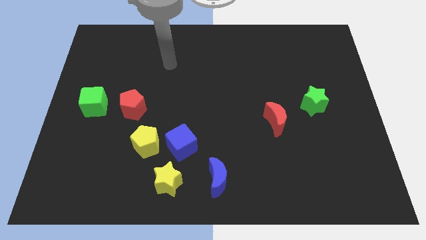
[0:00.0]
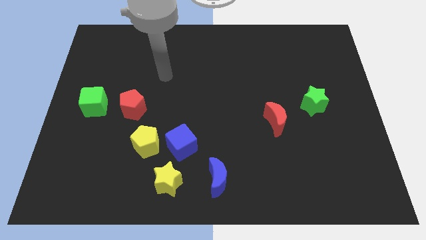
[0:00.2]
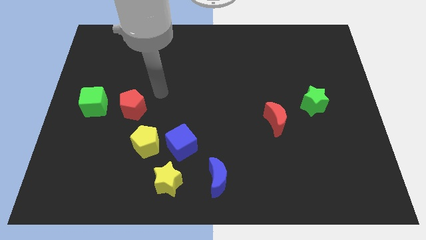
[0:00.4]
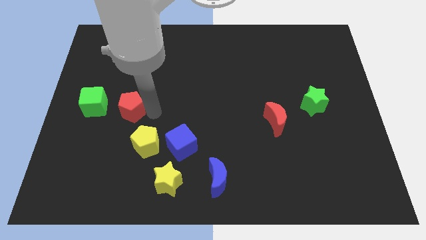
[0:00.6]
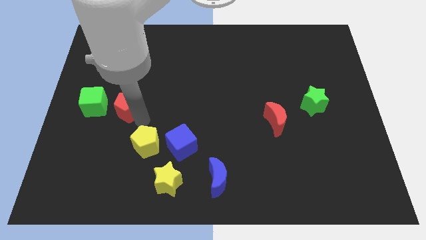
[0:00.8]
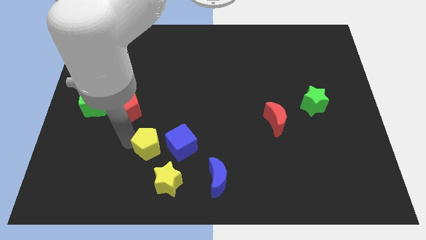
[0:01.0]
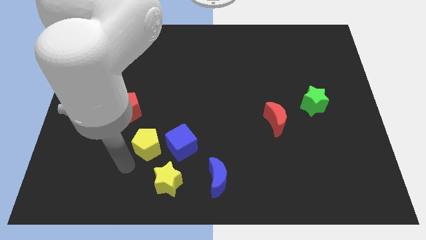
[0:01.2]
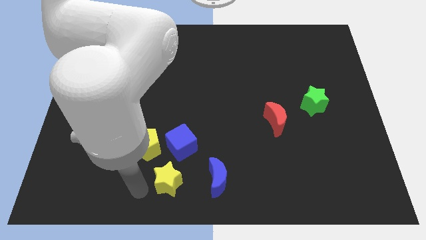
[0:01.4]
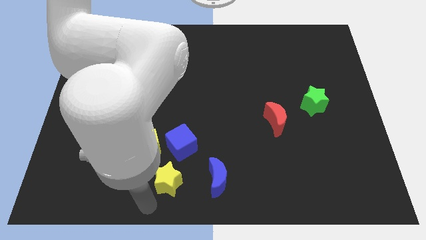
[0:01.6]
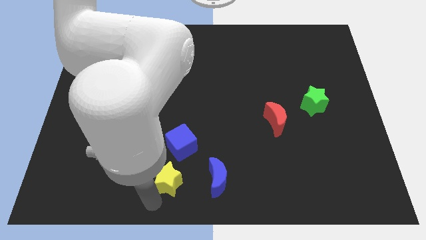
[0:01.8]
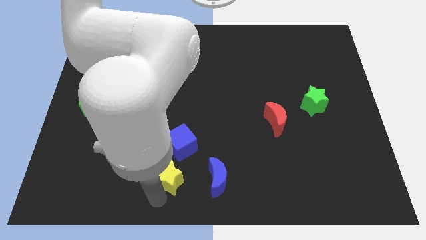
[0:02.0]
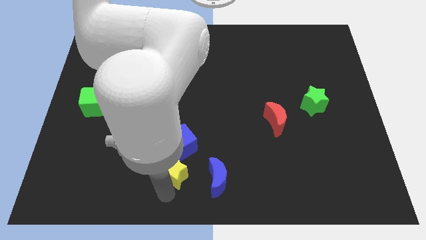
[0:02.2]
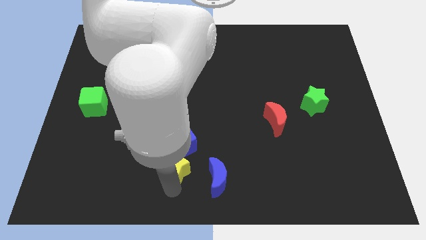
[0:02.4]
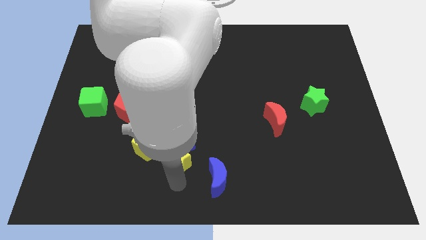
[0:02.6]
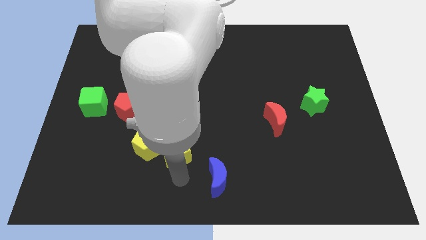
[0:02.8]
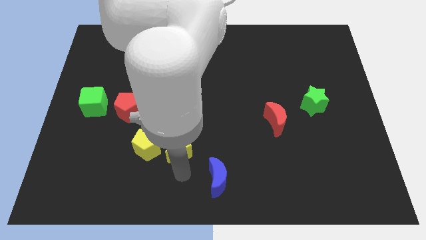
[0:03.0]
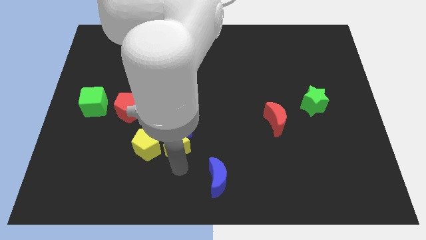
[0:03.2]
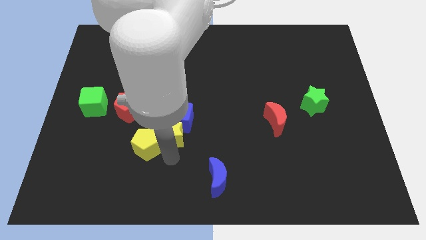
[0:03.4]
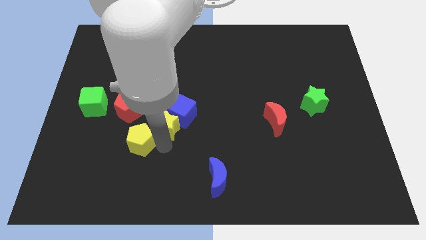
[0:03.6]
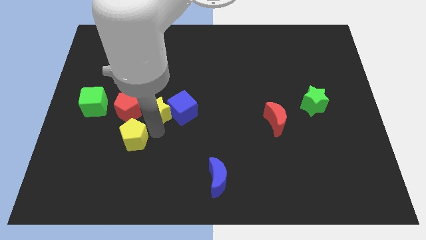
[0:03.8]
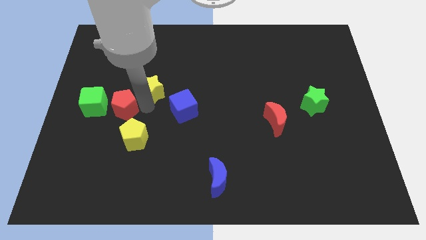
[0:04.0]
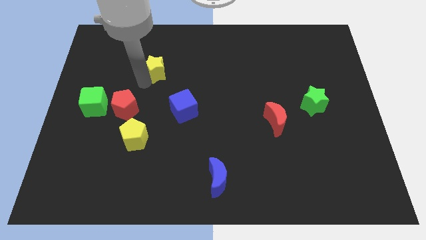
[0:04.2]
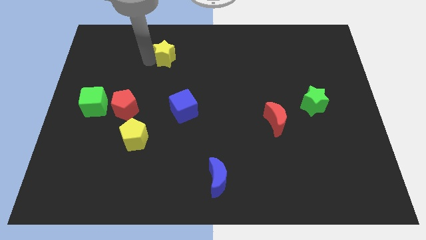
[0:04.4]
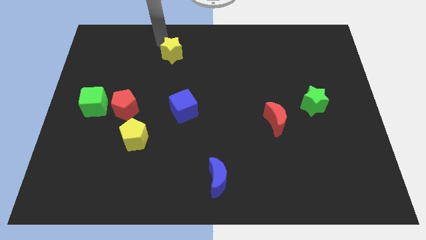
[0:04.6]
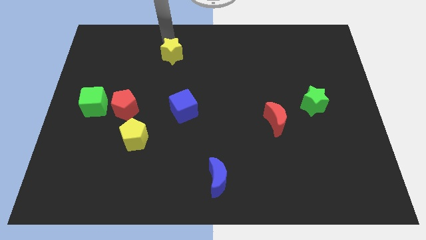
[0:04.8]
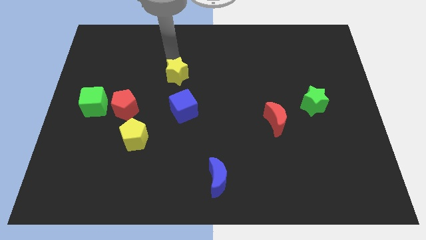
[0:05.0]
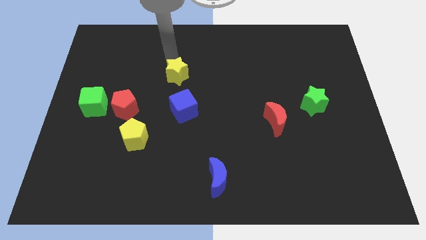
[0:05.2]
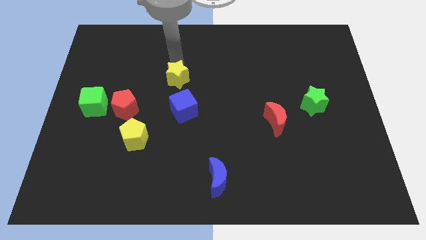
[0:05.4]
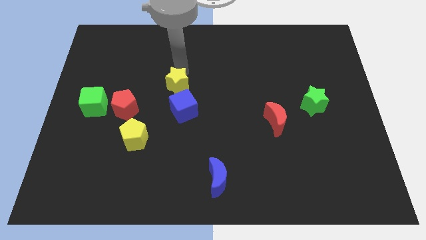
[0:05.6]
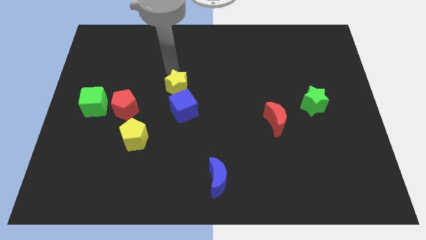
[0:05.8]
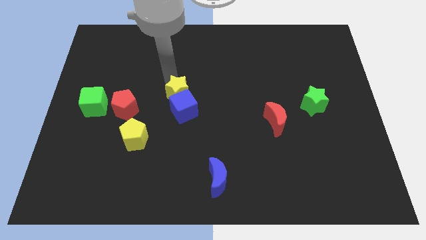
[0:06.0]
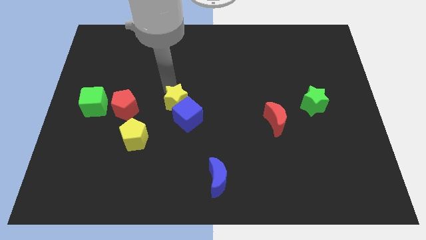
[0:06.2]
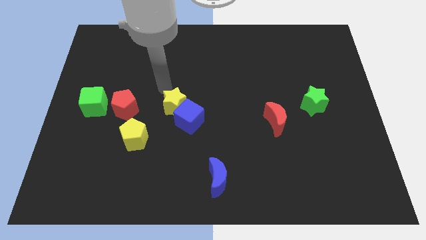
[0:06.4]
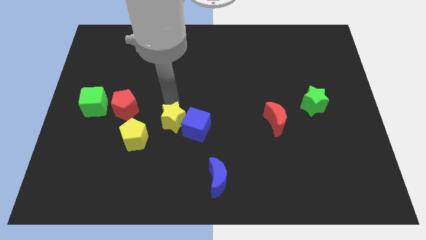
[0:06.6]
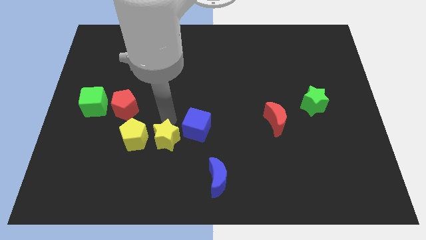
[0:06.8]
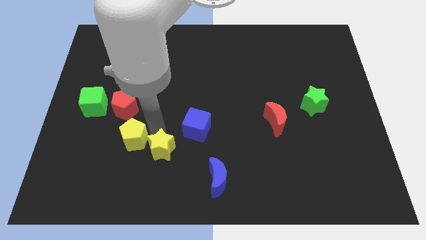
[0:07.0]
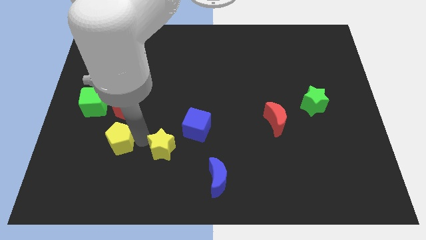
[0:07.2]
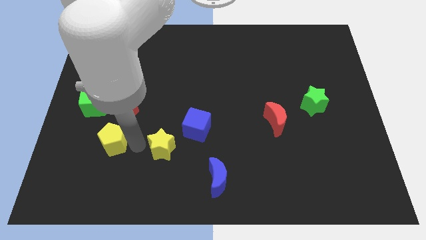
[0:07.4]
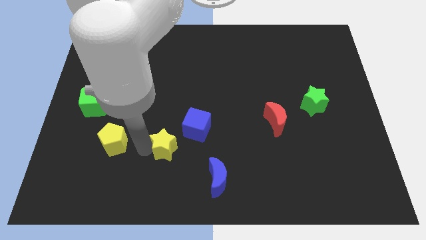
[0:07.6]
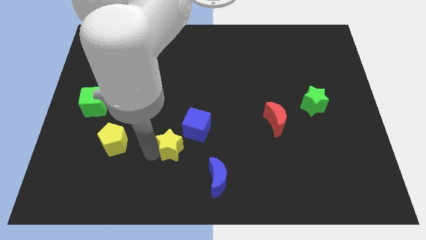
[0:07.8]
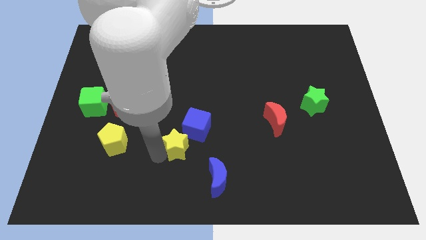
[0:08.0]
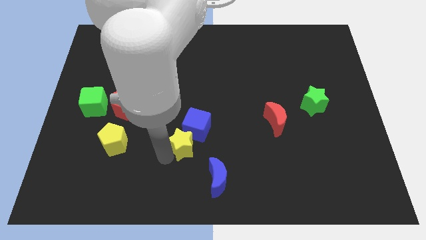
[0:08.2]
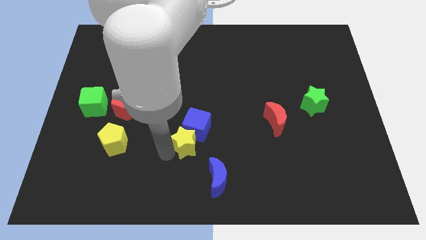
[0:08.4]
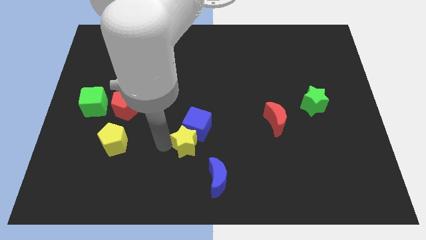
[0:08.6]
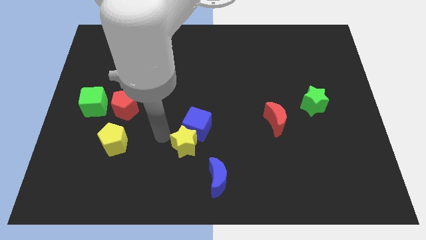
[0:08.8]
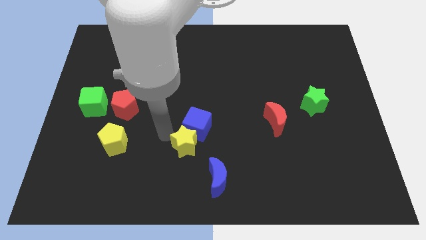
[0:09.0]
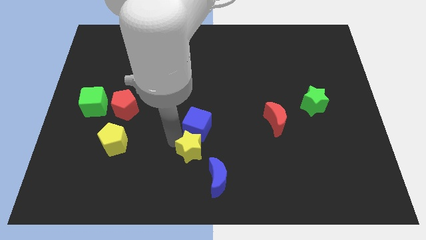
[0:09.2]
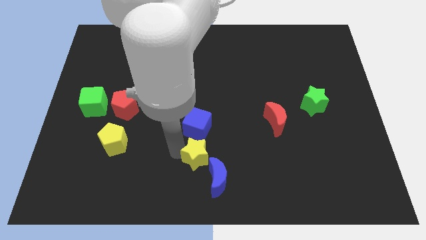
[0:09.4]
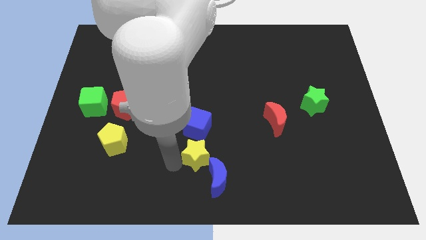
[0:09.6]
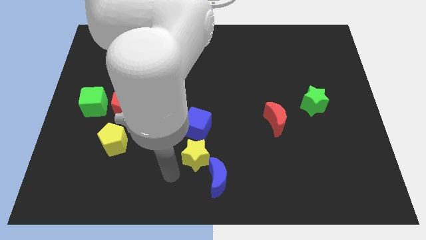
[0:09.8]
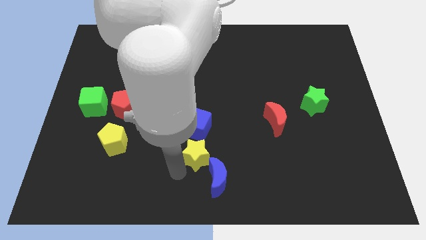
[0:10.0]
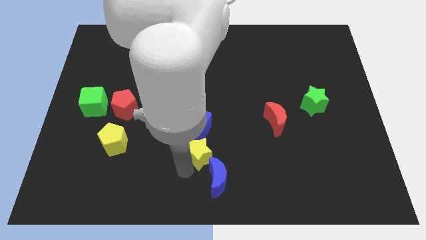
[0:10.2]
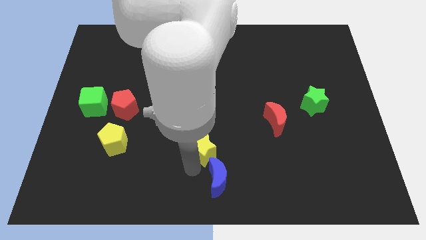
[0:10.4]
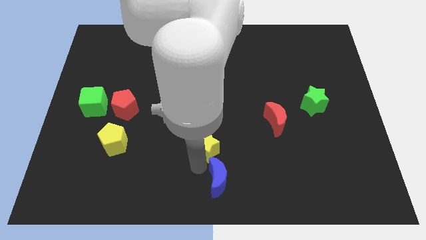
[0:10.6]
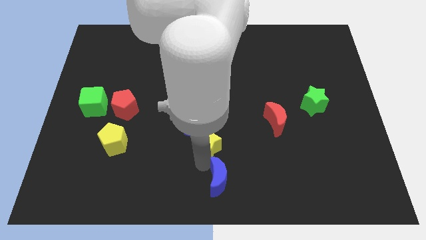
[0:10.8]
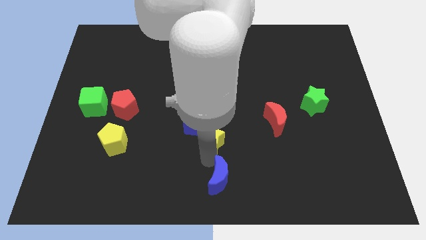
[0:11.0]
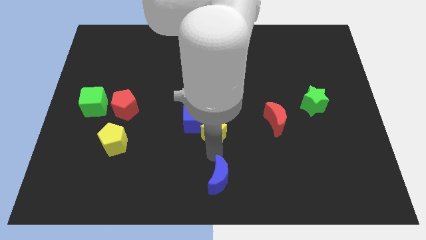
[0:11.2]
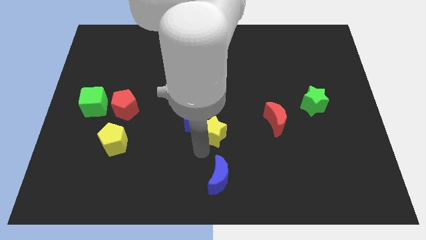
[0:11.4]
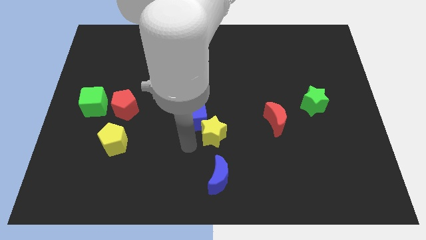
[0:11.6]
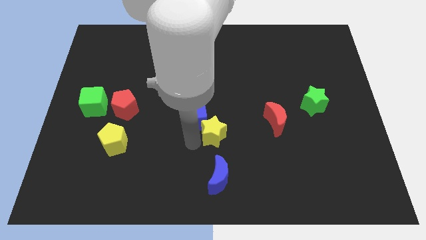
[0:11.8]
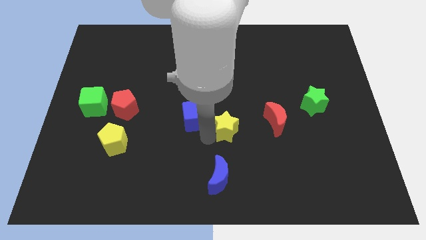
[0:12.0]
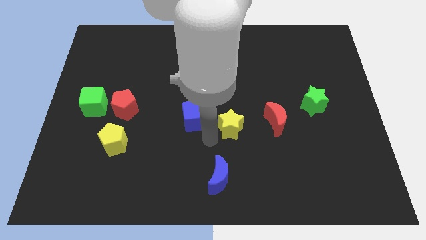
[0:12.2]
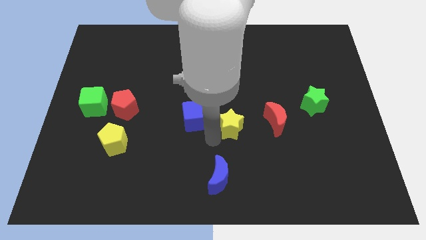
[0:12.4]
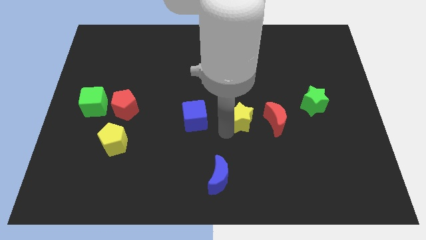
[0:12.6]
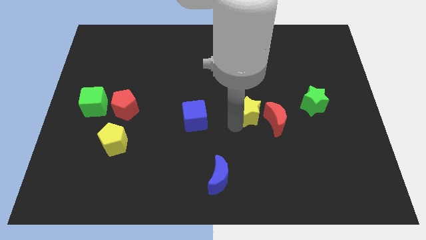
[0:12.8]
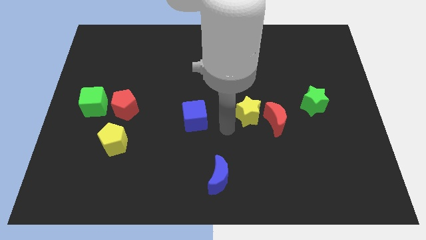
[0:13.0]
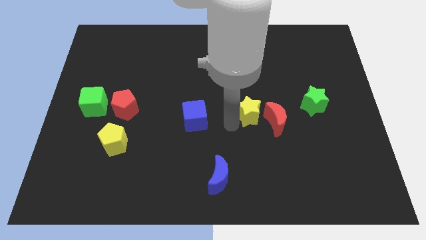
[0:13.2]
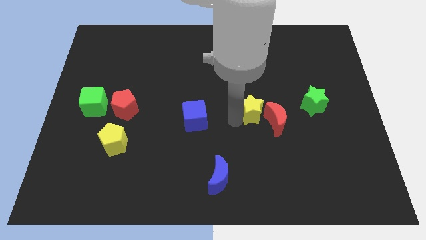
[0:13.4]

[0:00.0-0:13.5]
push the yellow star to the left side of the green star

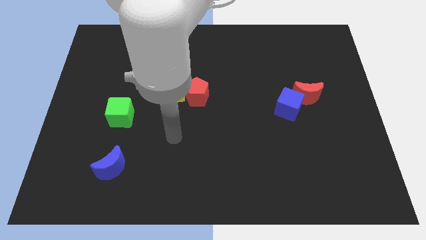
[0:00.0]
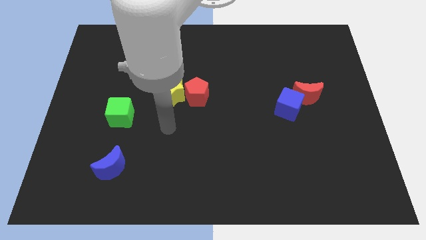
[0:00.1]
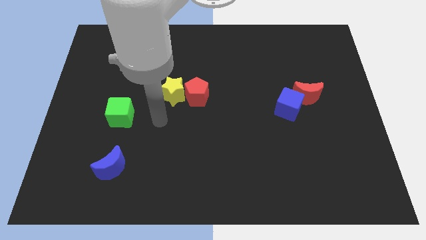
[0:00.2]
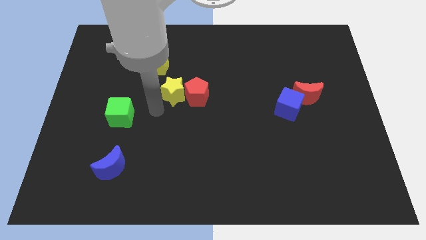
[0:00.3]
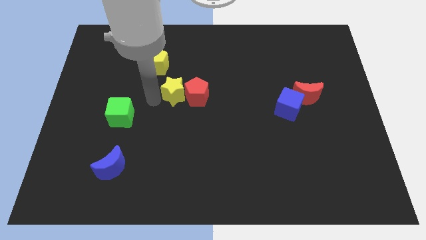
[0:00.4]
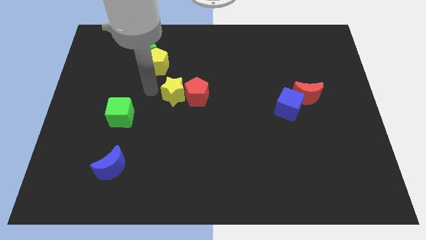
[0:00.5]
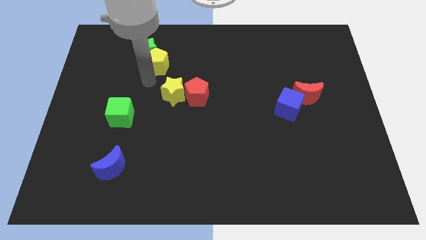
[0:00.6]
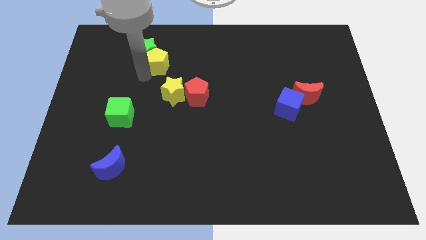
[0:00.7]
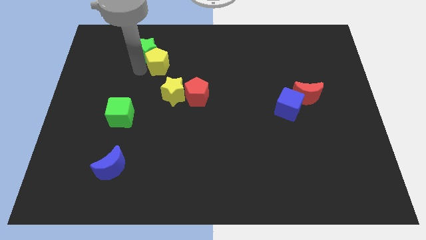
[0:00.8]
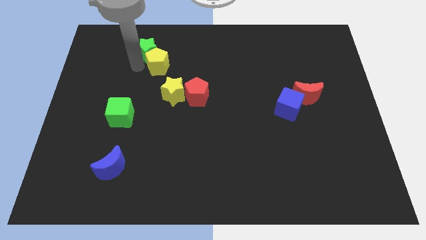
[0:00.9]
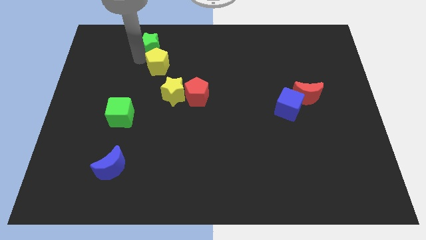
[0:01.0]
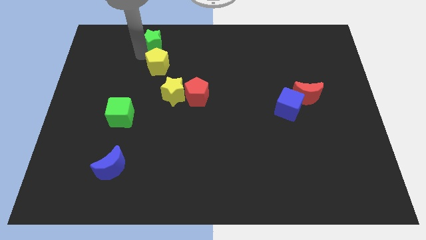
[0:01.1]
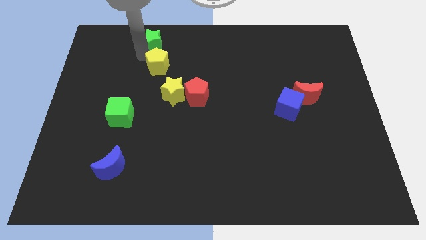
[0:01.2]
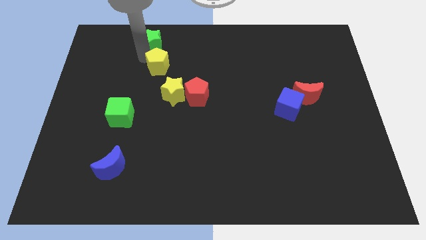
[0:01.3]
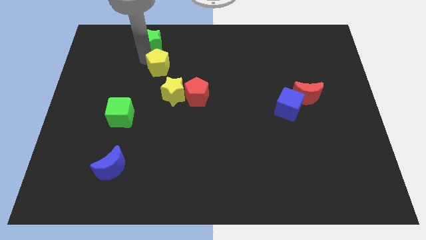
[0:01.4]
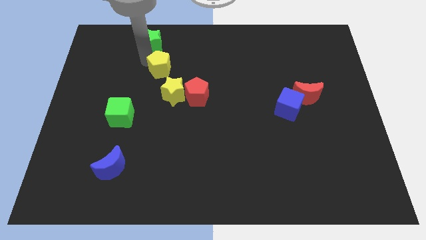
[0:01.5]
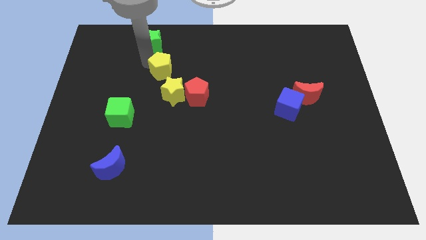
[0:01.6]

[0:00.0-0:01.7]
push the yellow pentagon diagonally up and to the left of the red pentagon
